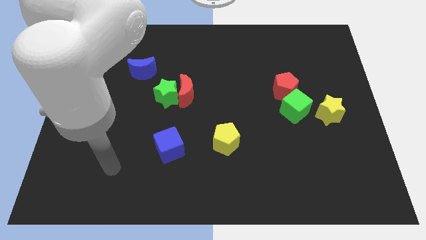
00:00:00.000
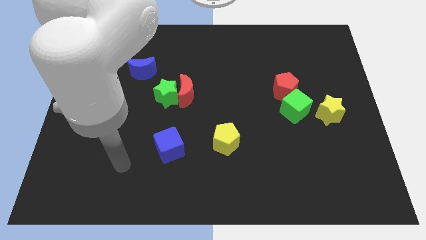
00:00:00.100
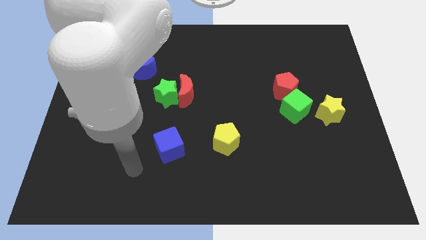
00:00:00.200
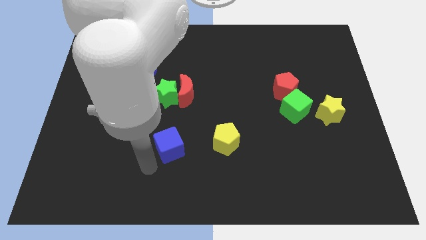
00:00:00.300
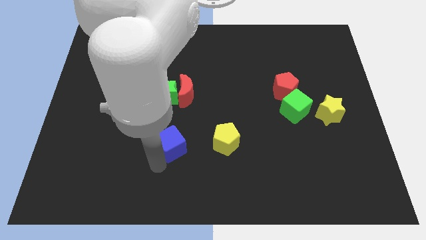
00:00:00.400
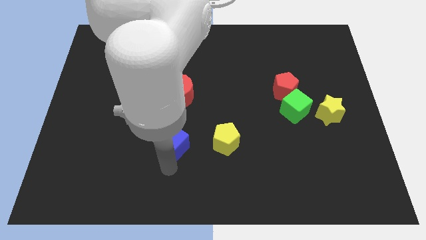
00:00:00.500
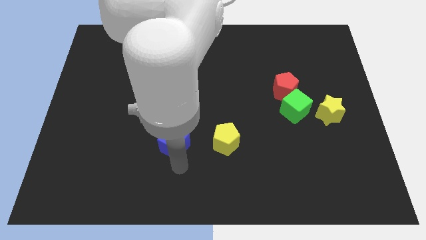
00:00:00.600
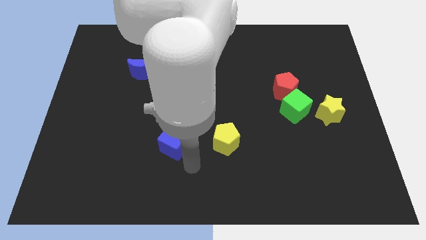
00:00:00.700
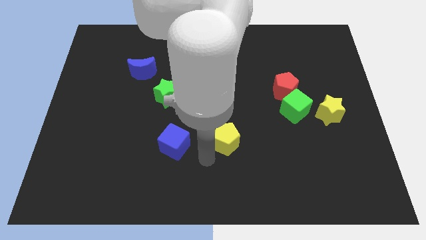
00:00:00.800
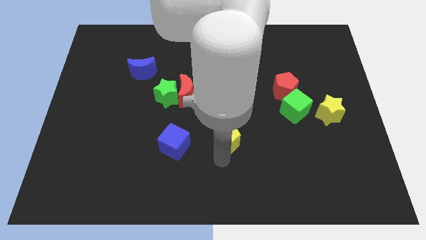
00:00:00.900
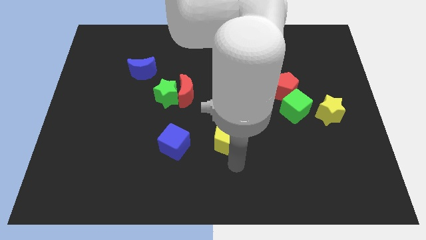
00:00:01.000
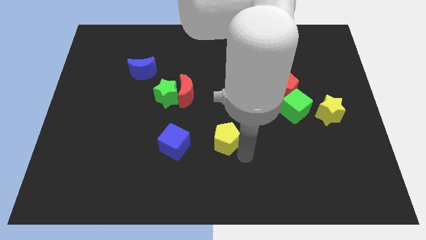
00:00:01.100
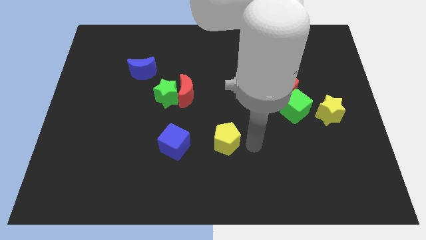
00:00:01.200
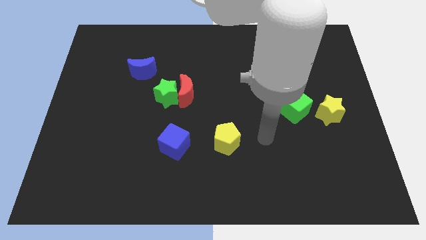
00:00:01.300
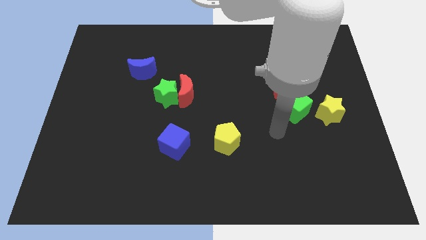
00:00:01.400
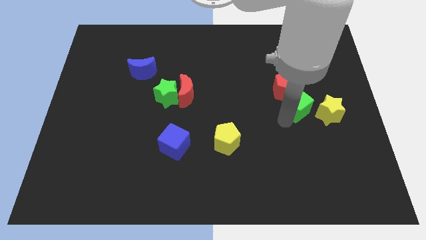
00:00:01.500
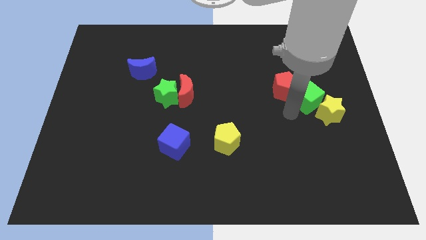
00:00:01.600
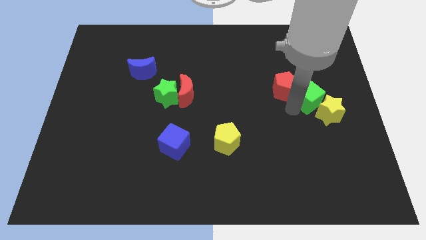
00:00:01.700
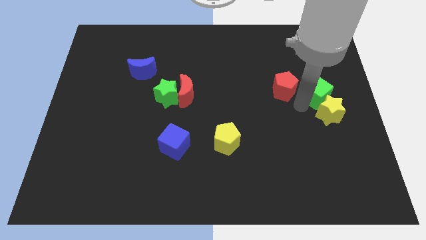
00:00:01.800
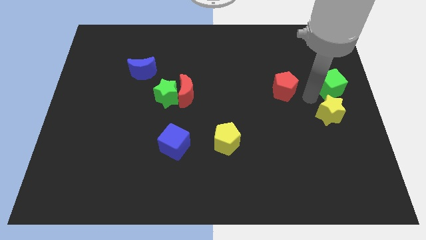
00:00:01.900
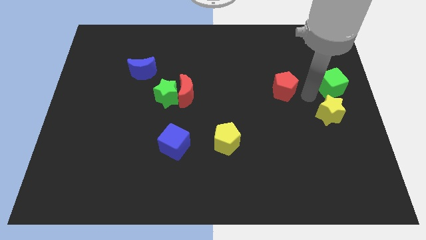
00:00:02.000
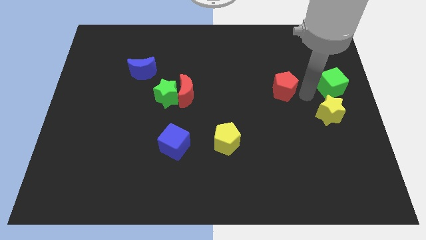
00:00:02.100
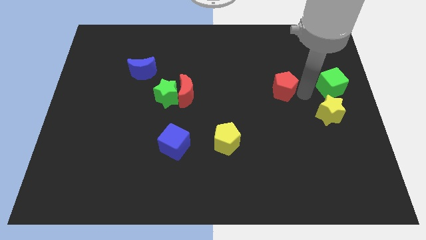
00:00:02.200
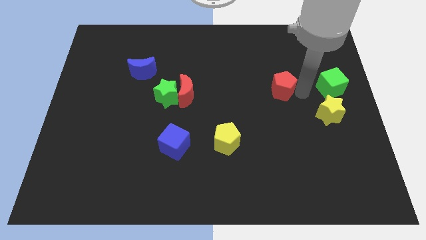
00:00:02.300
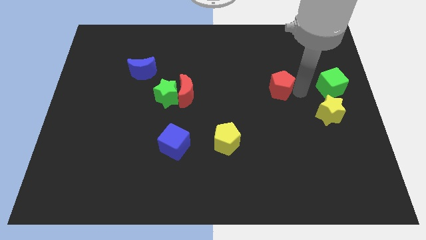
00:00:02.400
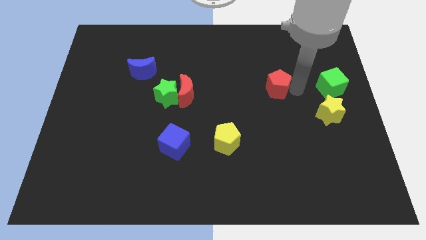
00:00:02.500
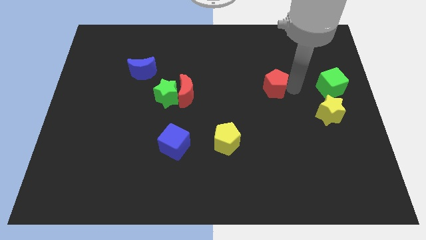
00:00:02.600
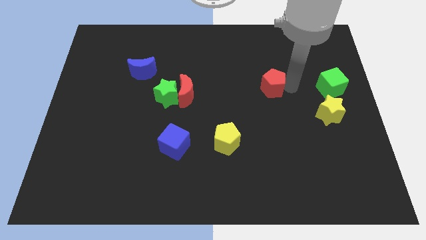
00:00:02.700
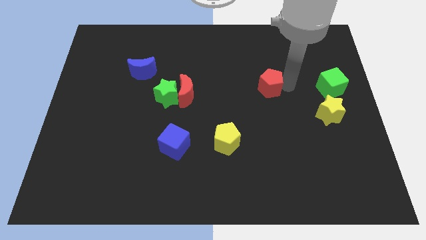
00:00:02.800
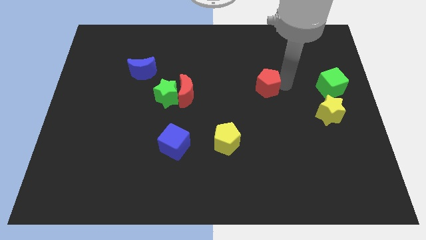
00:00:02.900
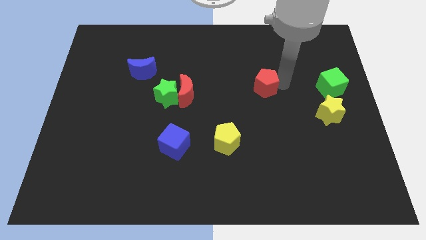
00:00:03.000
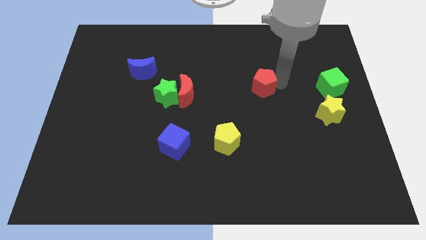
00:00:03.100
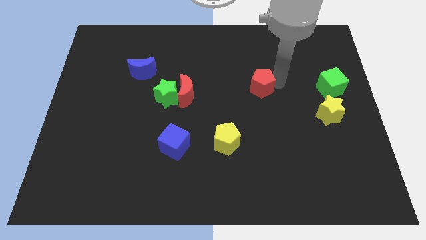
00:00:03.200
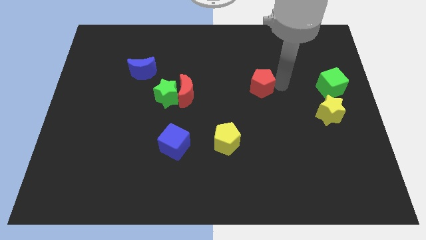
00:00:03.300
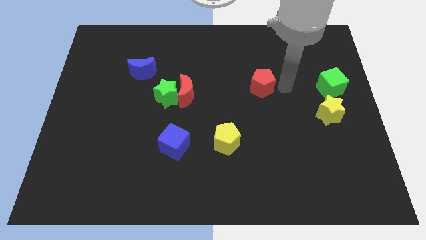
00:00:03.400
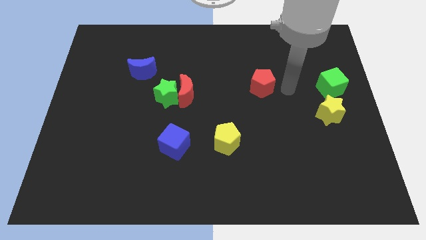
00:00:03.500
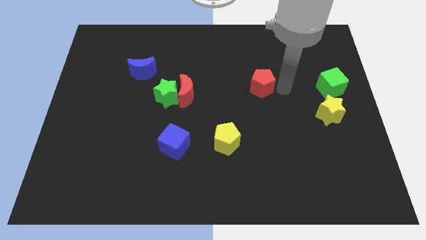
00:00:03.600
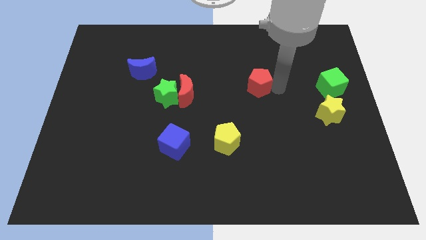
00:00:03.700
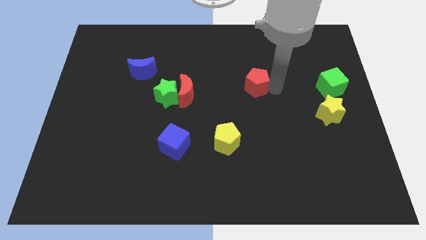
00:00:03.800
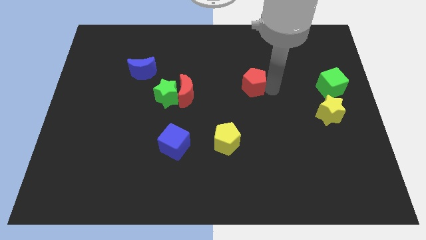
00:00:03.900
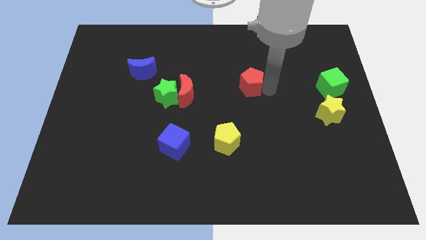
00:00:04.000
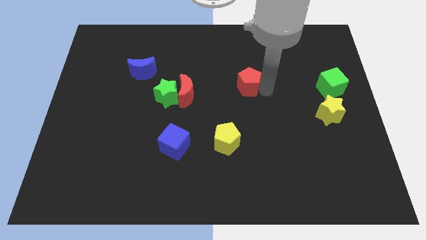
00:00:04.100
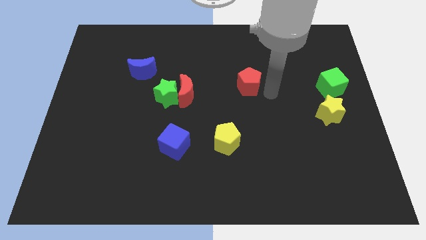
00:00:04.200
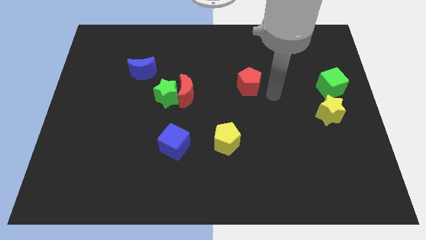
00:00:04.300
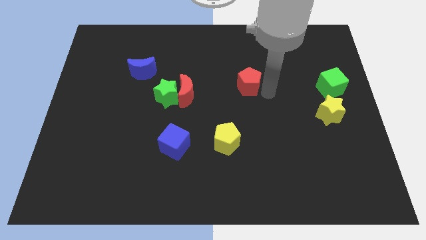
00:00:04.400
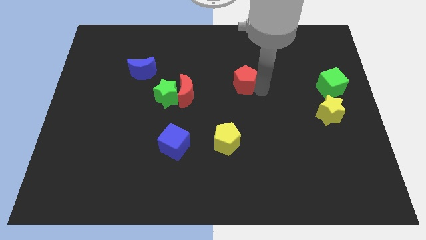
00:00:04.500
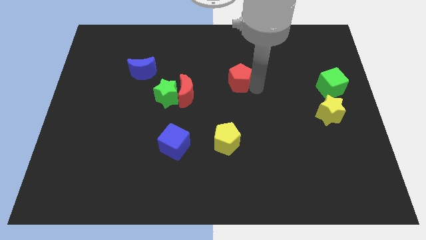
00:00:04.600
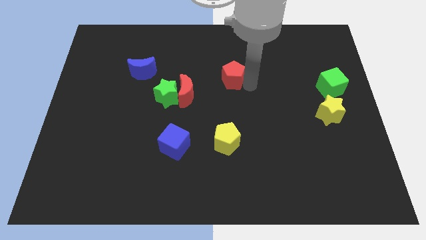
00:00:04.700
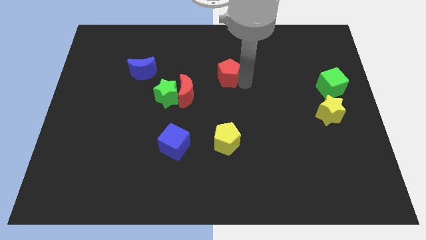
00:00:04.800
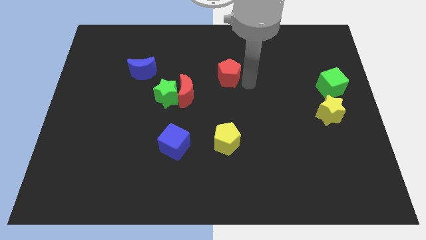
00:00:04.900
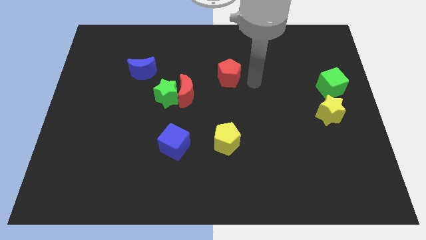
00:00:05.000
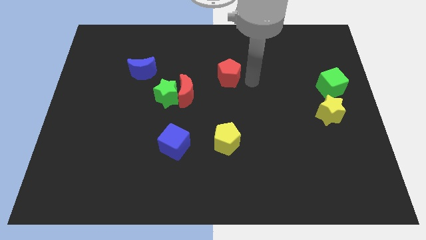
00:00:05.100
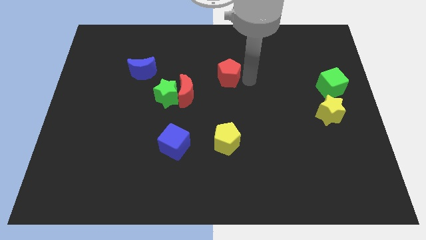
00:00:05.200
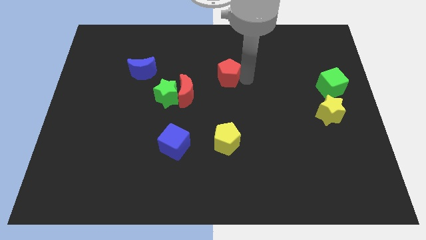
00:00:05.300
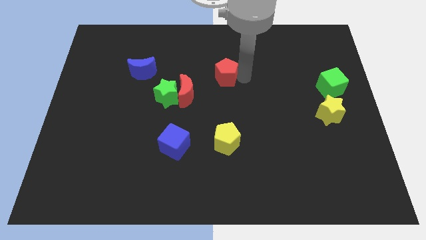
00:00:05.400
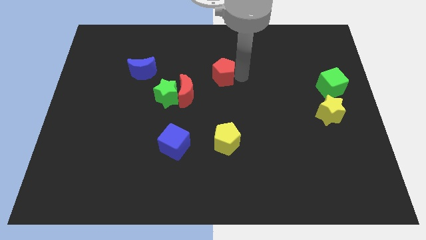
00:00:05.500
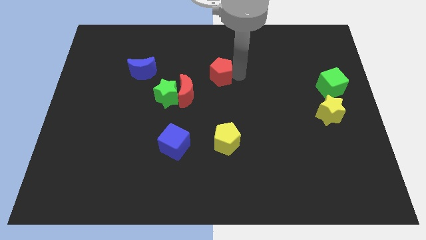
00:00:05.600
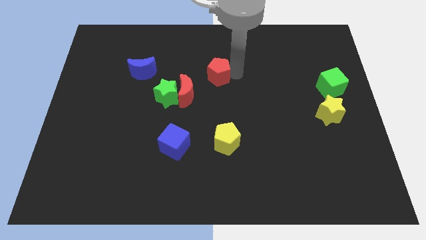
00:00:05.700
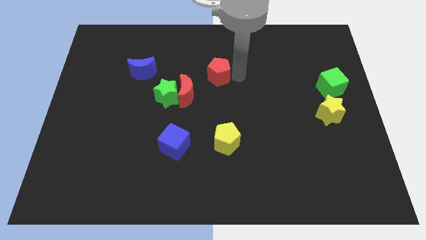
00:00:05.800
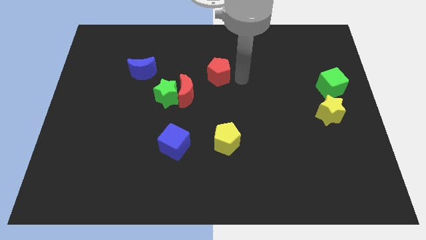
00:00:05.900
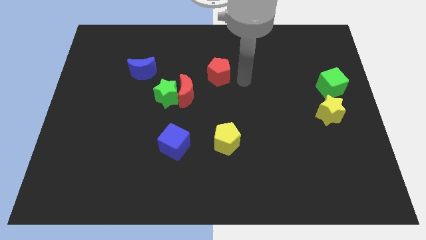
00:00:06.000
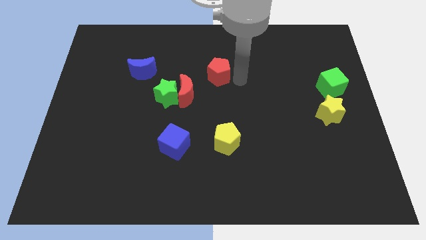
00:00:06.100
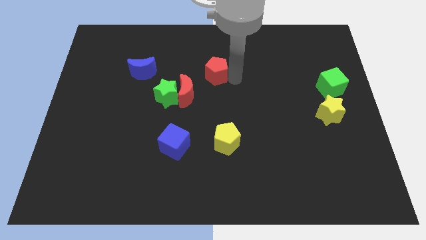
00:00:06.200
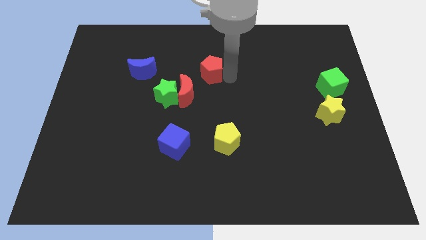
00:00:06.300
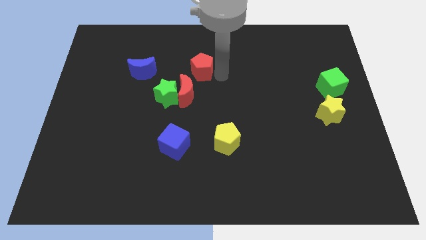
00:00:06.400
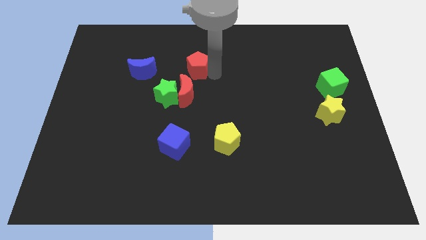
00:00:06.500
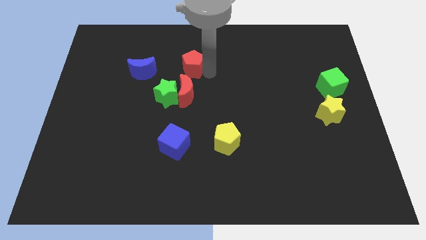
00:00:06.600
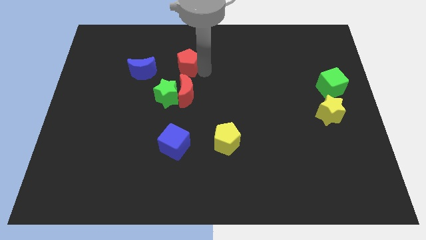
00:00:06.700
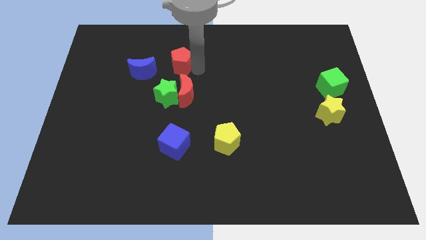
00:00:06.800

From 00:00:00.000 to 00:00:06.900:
put the red pentagon diagonally up and to the right of the blue moon
